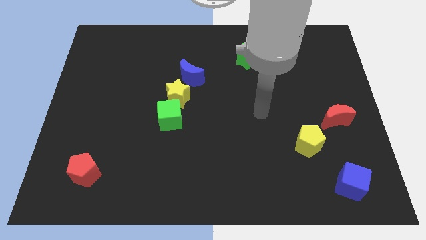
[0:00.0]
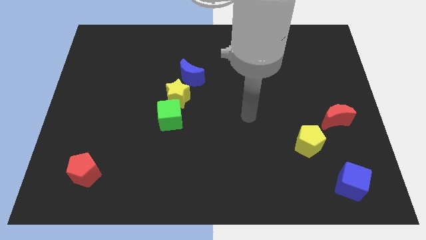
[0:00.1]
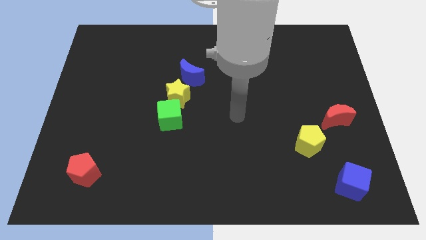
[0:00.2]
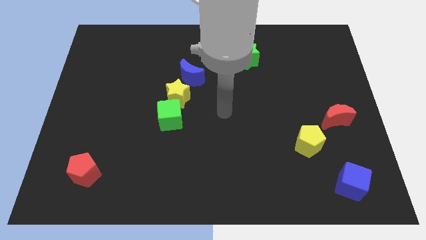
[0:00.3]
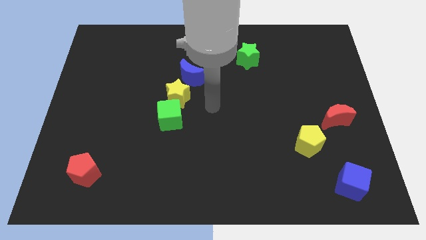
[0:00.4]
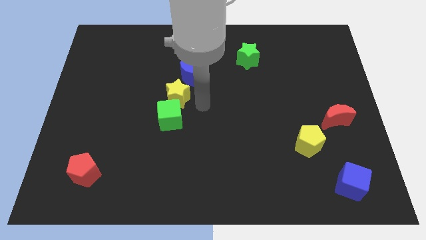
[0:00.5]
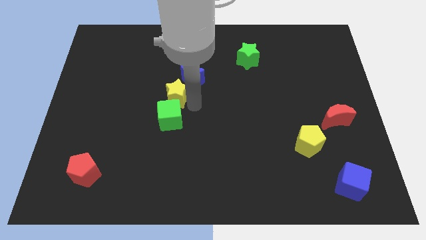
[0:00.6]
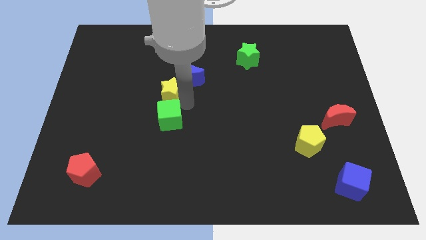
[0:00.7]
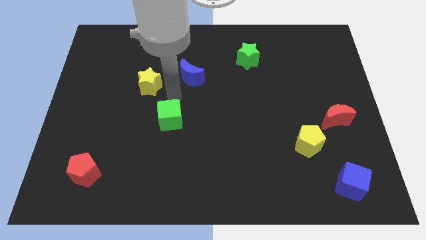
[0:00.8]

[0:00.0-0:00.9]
pull the green cube apart from the yellow star

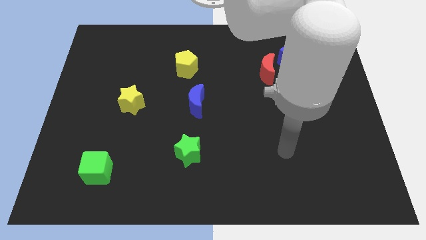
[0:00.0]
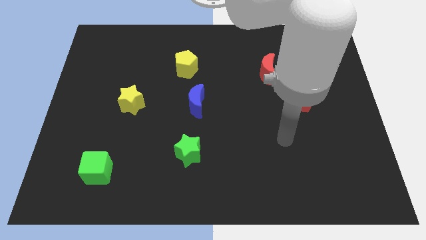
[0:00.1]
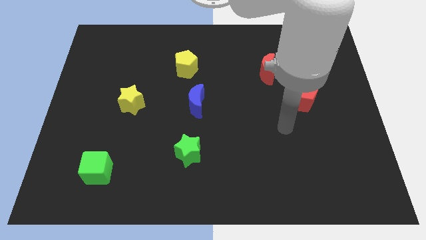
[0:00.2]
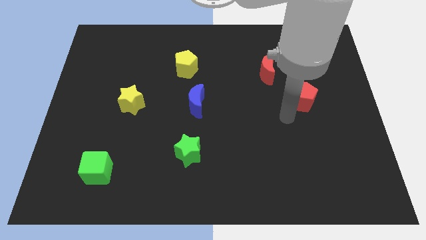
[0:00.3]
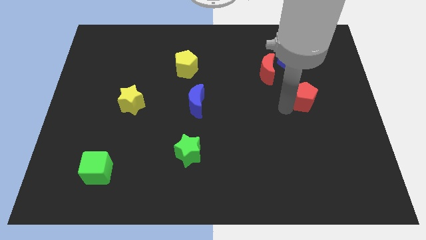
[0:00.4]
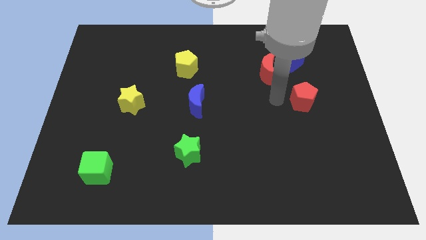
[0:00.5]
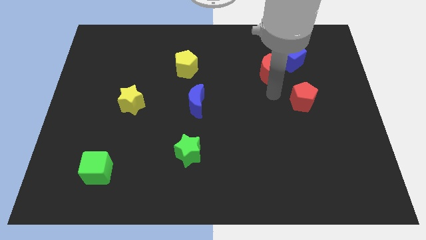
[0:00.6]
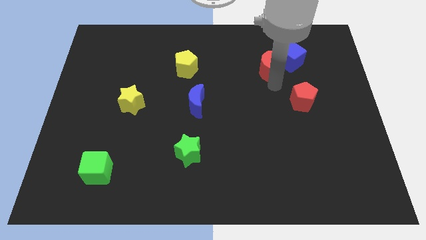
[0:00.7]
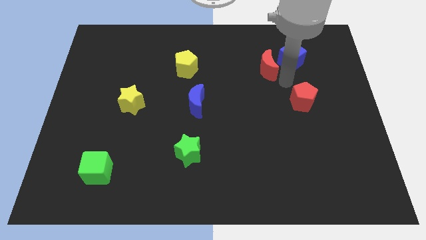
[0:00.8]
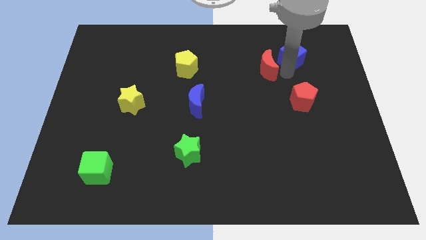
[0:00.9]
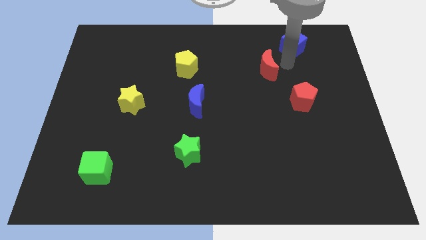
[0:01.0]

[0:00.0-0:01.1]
separate the red moon from the blue cube

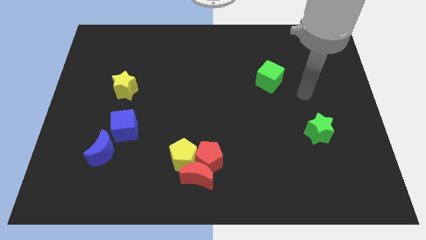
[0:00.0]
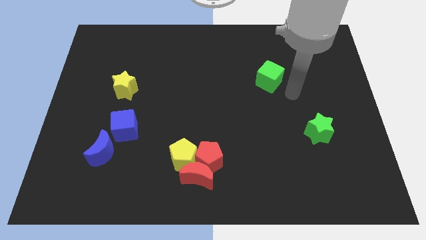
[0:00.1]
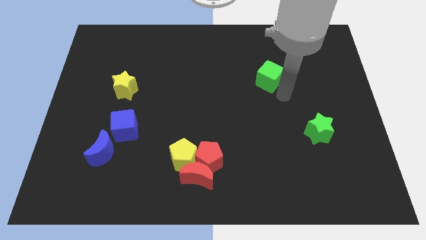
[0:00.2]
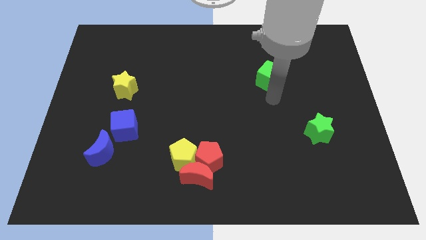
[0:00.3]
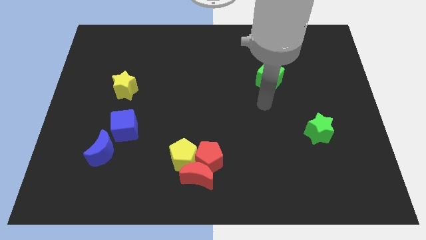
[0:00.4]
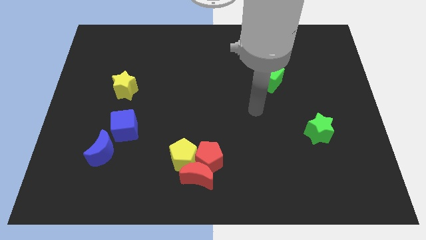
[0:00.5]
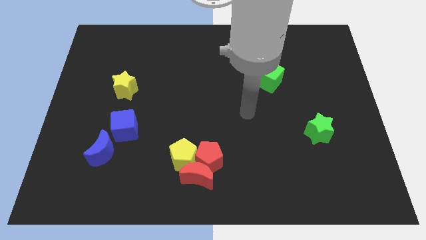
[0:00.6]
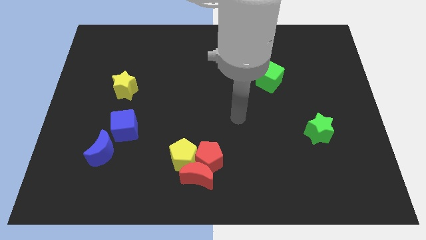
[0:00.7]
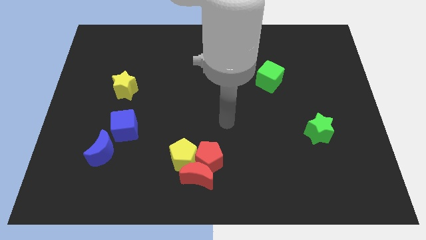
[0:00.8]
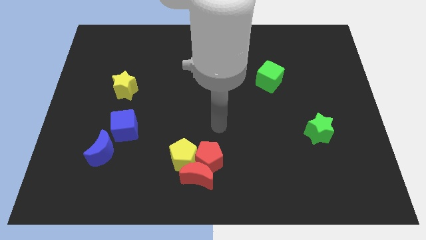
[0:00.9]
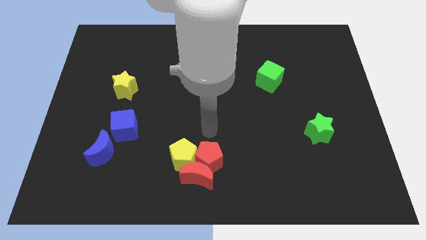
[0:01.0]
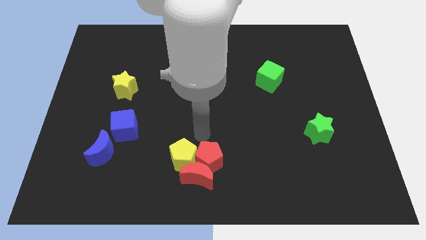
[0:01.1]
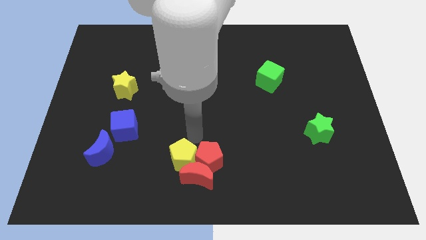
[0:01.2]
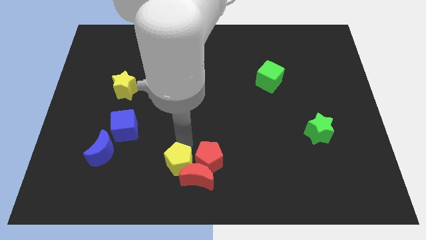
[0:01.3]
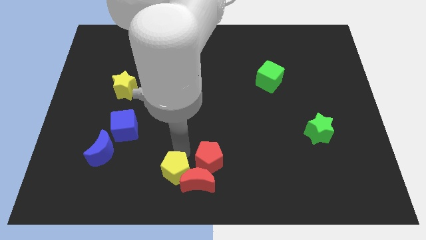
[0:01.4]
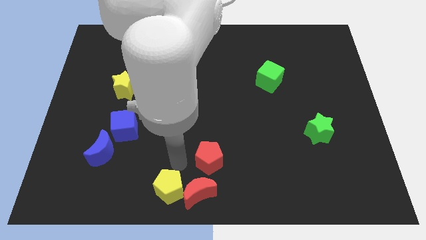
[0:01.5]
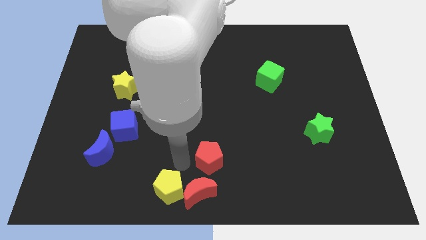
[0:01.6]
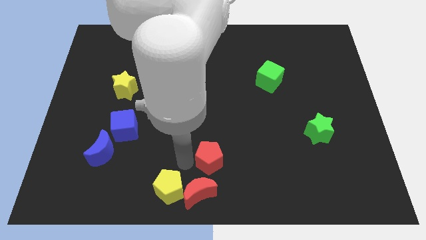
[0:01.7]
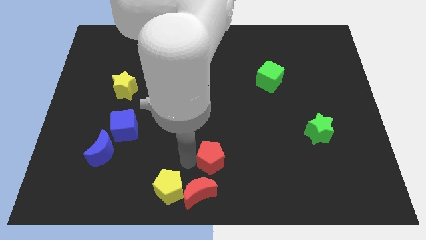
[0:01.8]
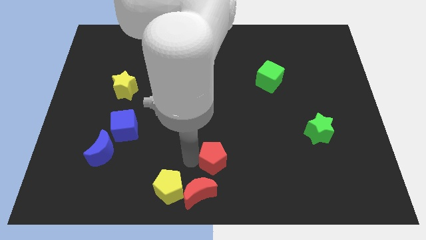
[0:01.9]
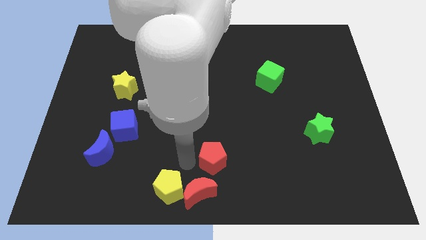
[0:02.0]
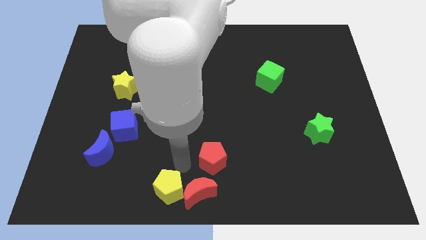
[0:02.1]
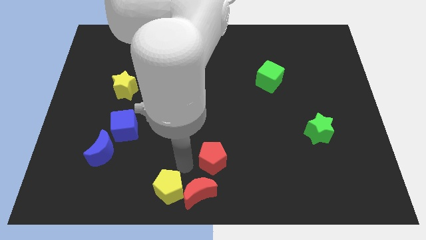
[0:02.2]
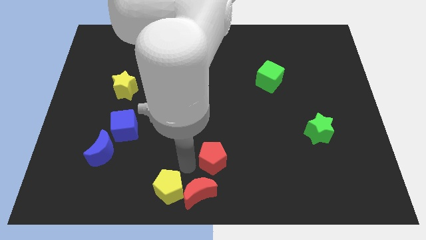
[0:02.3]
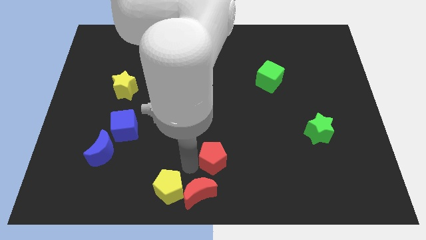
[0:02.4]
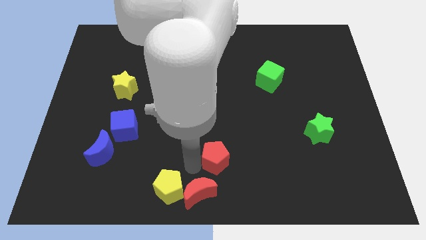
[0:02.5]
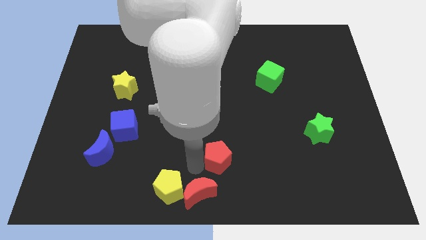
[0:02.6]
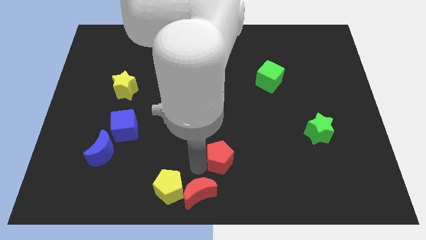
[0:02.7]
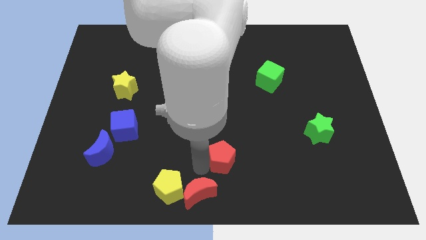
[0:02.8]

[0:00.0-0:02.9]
separate the red pentagon from the red moon and yellow pentagon

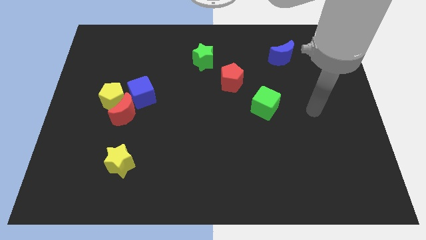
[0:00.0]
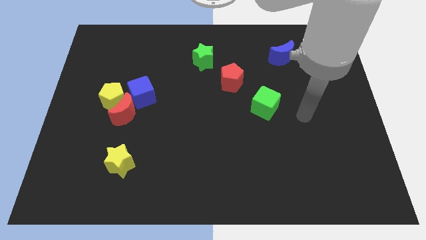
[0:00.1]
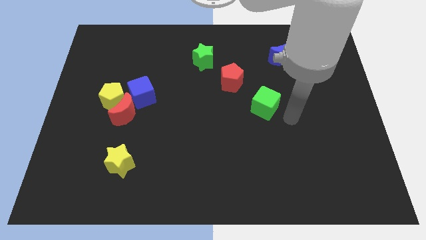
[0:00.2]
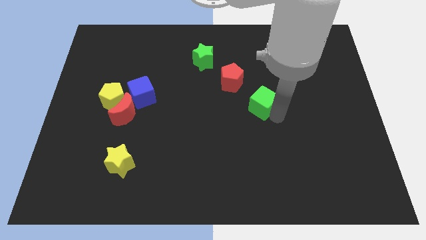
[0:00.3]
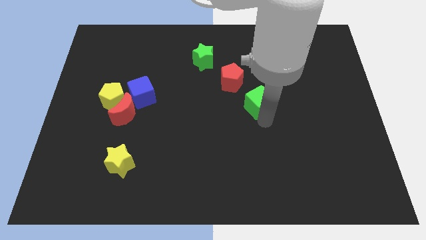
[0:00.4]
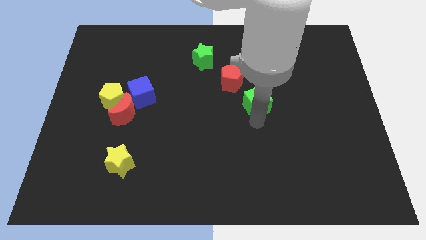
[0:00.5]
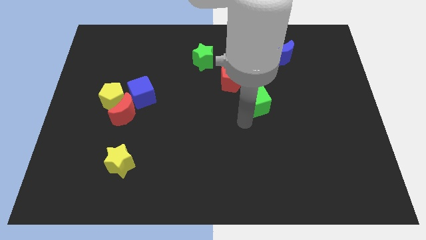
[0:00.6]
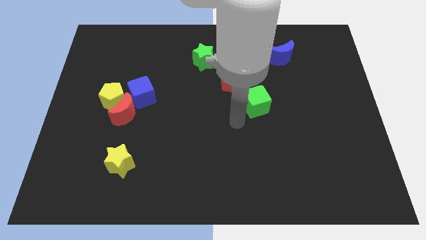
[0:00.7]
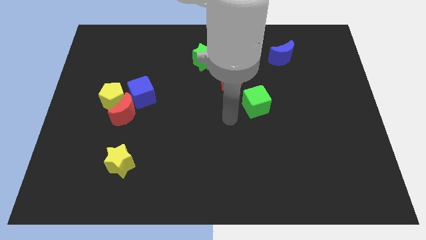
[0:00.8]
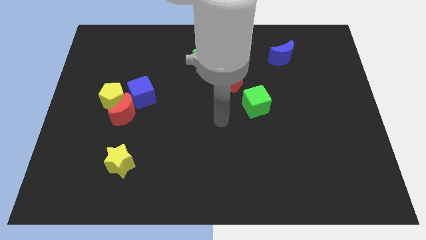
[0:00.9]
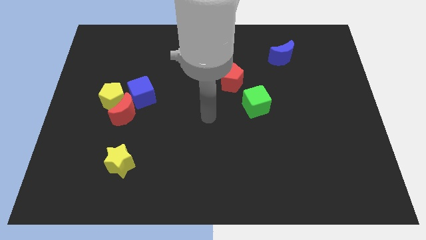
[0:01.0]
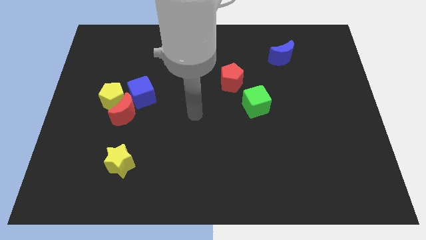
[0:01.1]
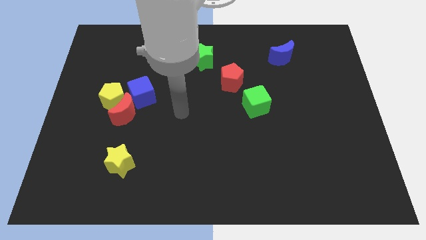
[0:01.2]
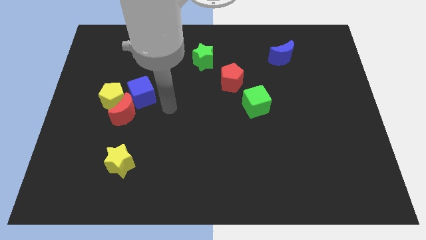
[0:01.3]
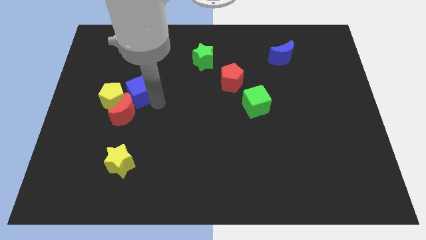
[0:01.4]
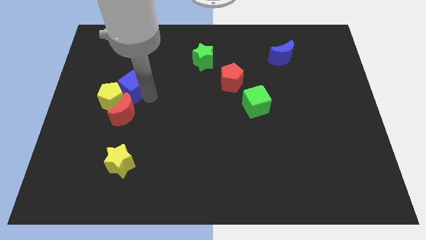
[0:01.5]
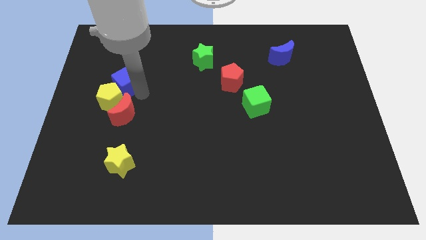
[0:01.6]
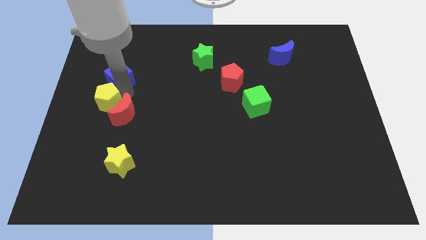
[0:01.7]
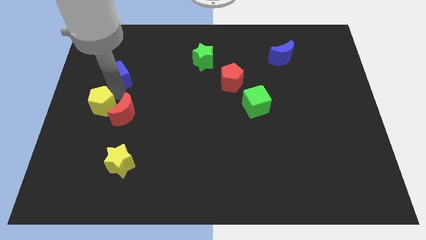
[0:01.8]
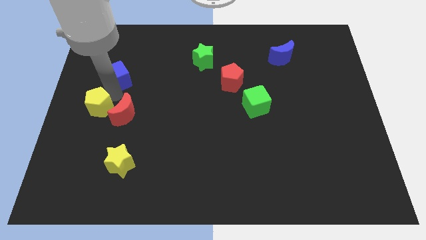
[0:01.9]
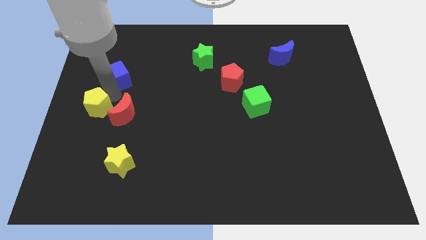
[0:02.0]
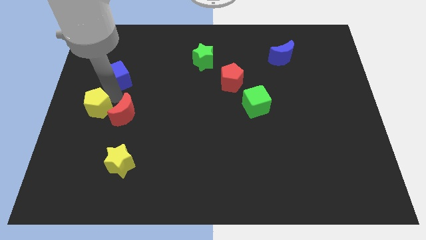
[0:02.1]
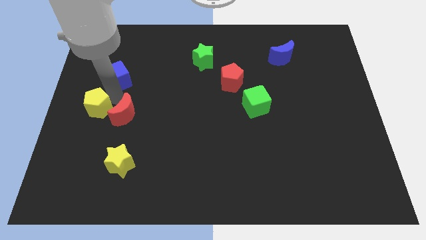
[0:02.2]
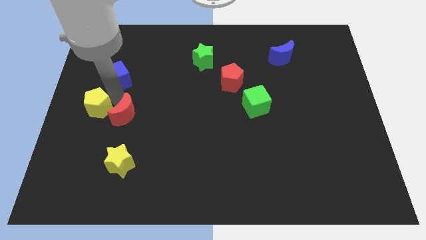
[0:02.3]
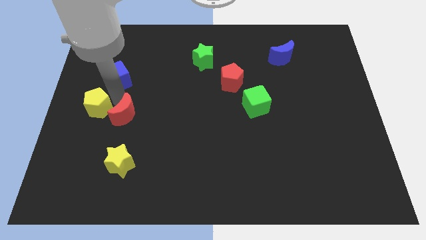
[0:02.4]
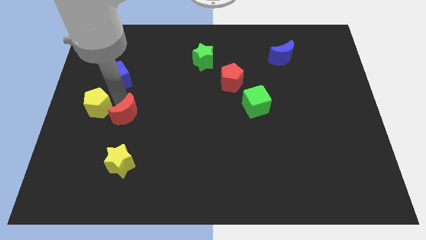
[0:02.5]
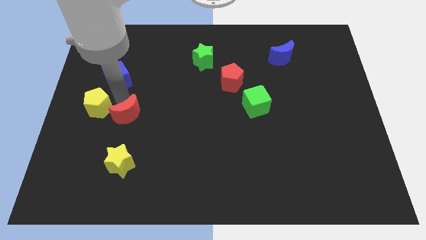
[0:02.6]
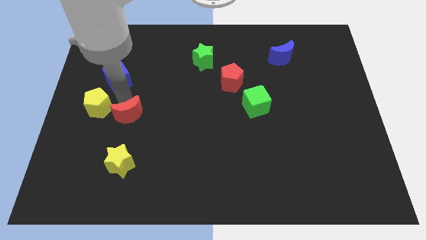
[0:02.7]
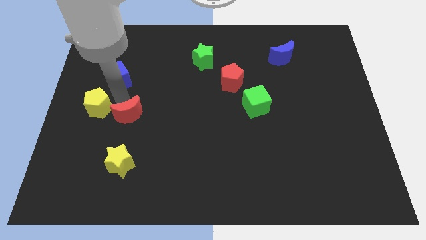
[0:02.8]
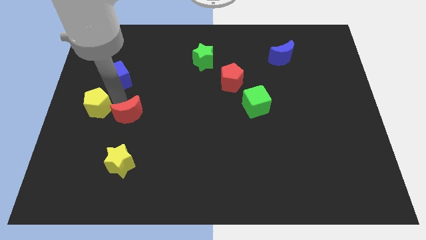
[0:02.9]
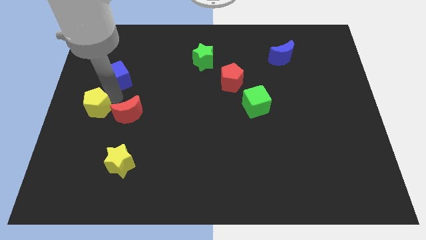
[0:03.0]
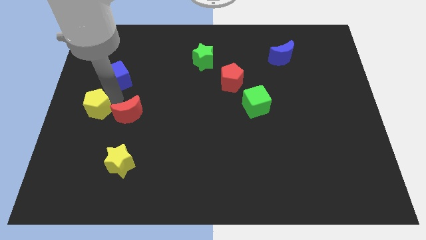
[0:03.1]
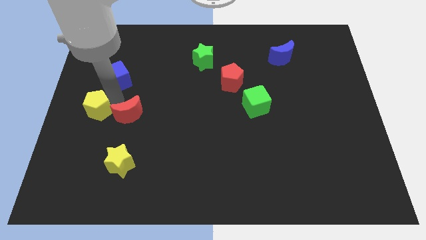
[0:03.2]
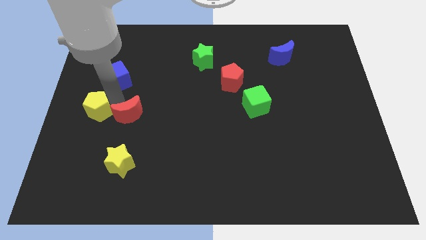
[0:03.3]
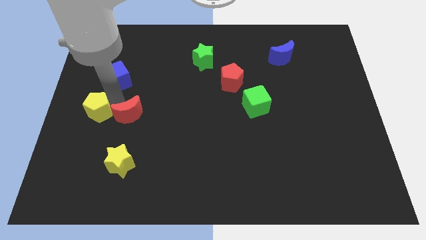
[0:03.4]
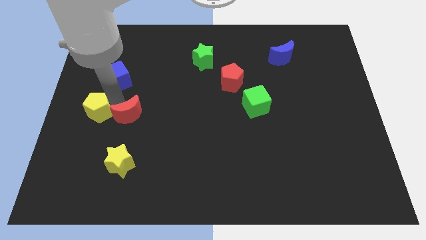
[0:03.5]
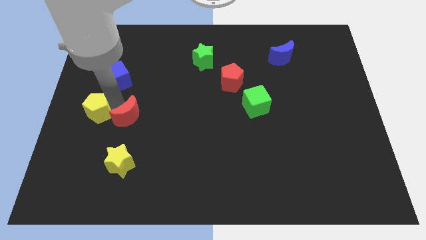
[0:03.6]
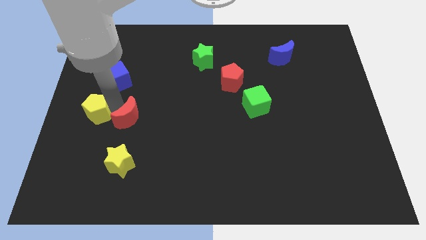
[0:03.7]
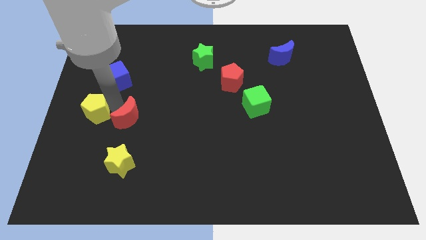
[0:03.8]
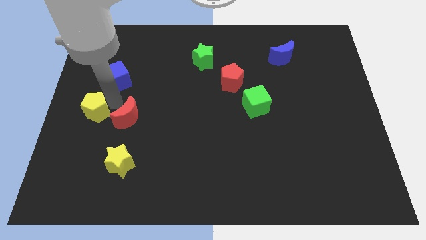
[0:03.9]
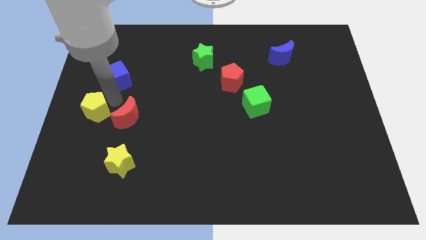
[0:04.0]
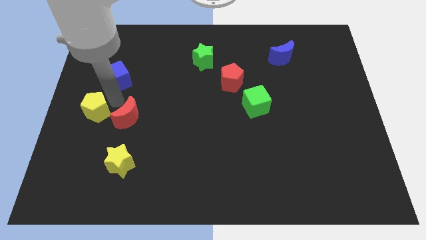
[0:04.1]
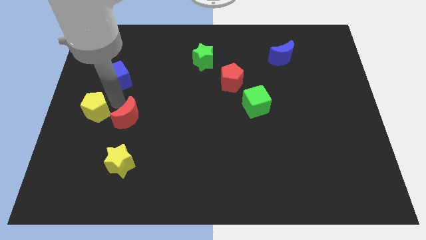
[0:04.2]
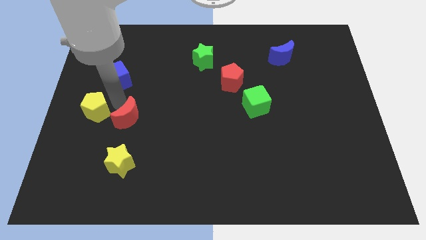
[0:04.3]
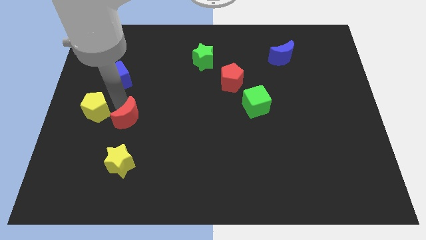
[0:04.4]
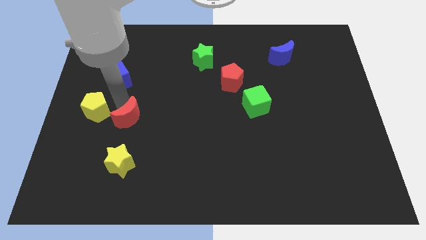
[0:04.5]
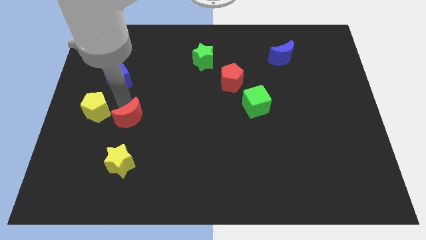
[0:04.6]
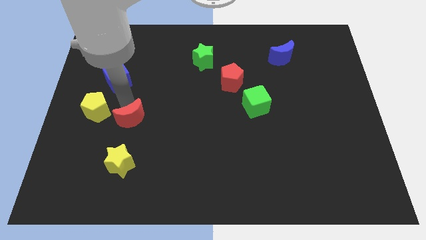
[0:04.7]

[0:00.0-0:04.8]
separate the red moon from the yellow pentagon and blue cube
